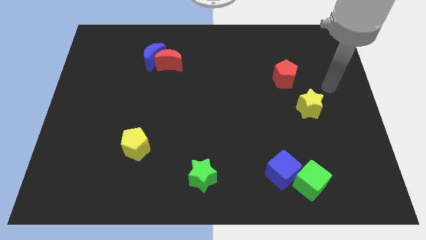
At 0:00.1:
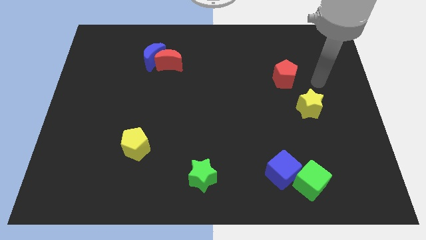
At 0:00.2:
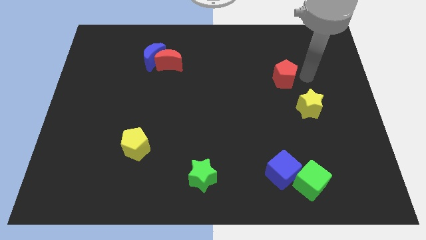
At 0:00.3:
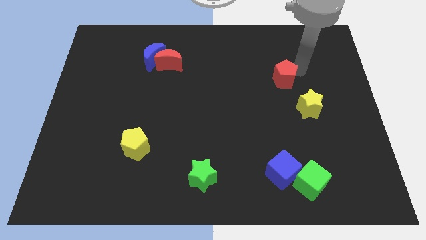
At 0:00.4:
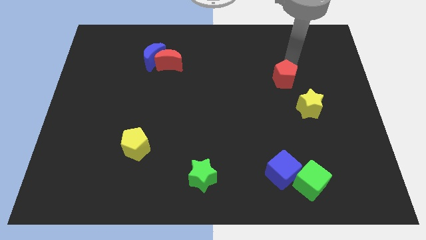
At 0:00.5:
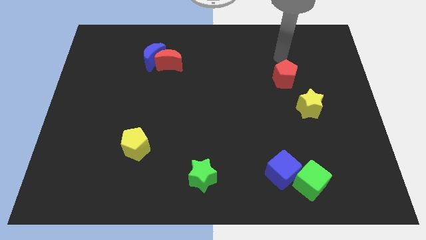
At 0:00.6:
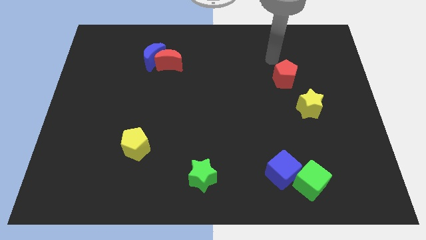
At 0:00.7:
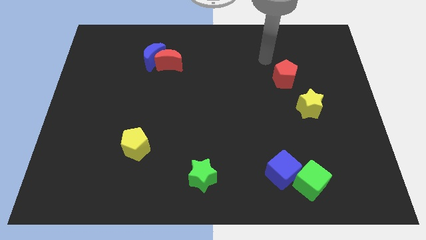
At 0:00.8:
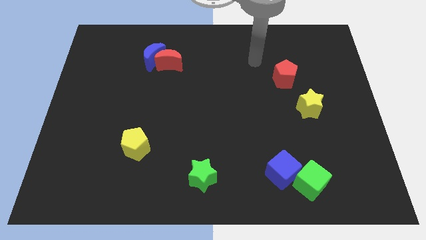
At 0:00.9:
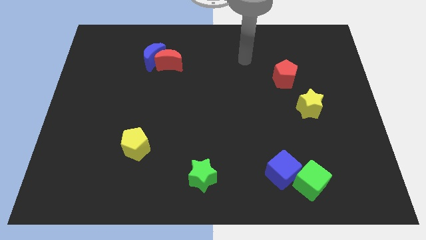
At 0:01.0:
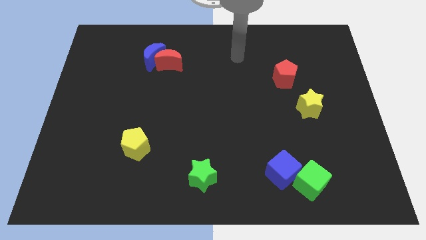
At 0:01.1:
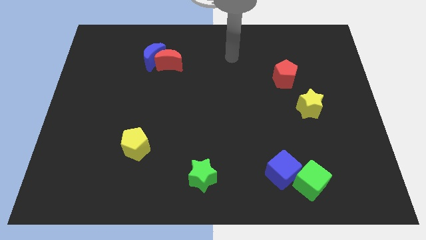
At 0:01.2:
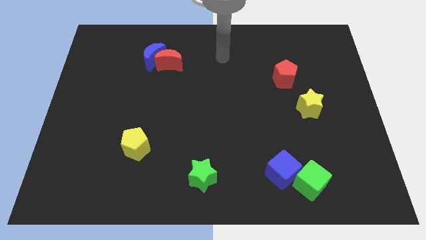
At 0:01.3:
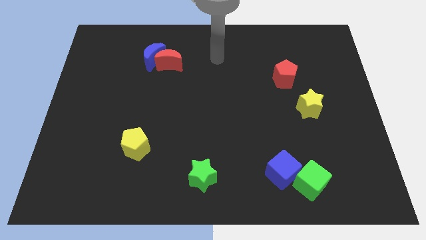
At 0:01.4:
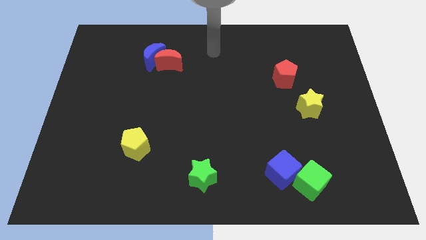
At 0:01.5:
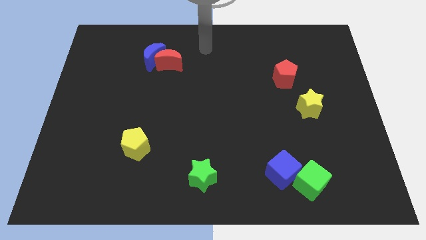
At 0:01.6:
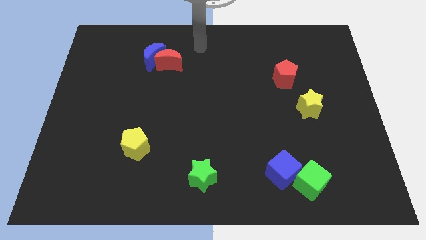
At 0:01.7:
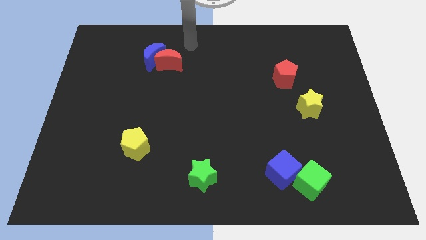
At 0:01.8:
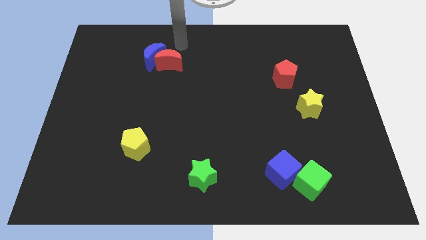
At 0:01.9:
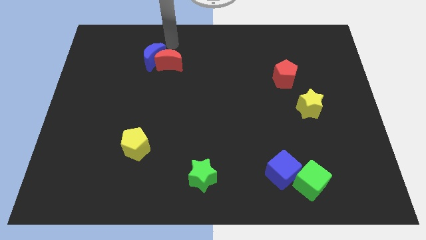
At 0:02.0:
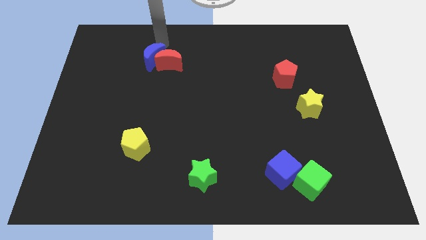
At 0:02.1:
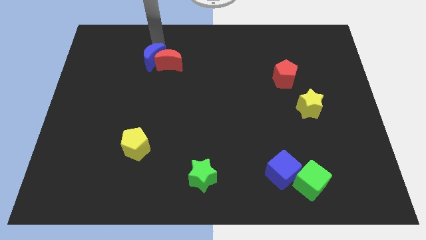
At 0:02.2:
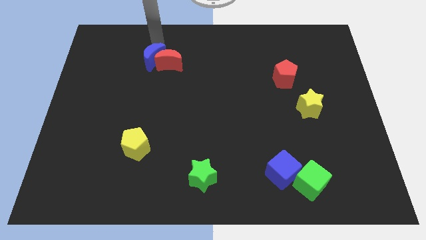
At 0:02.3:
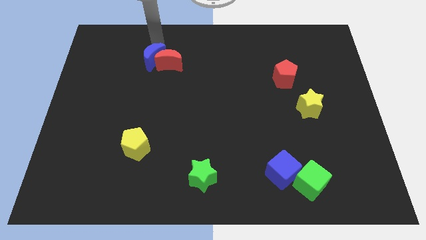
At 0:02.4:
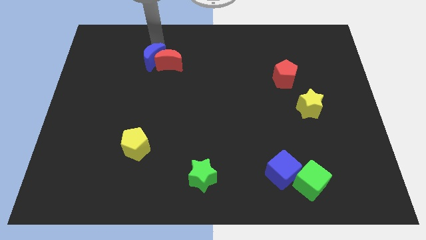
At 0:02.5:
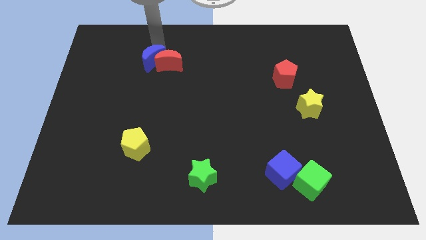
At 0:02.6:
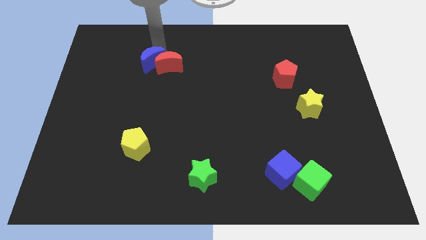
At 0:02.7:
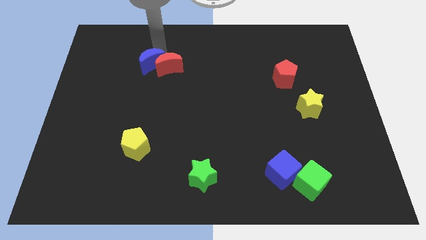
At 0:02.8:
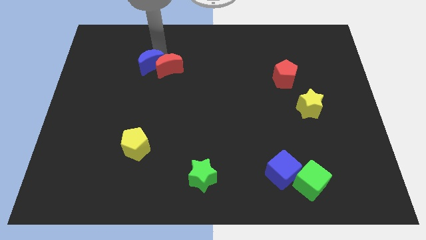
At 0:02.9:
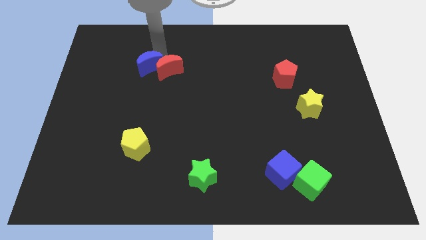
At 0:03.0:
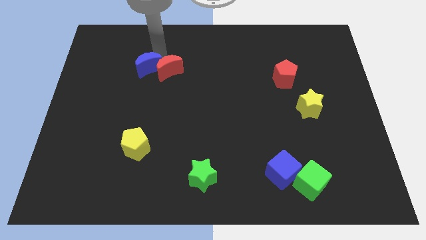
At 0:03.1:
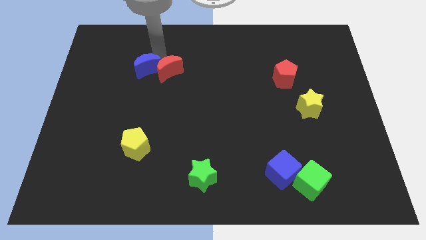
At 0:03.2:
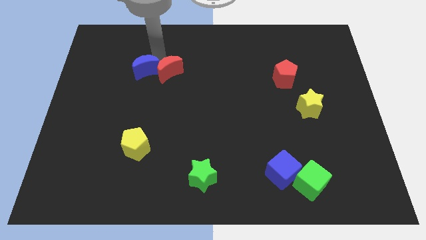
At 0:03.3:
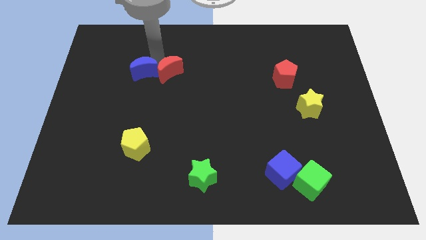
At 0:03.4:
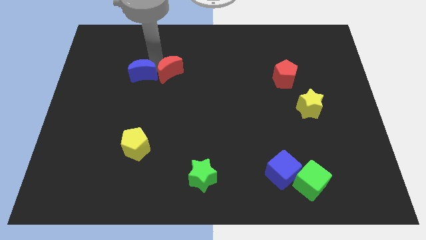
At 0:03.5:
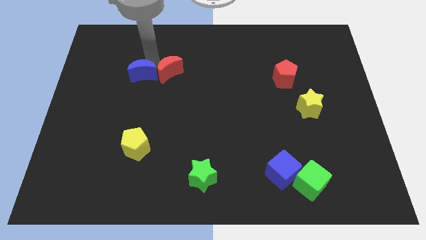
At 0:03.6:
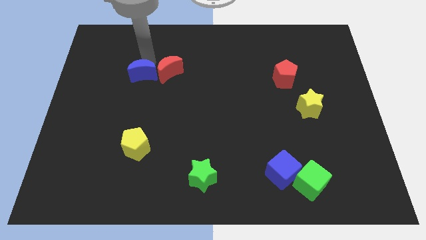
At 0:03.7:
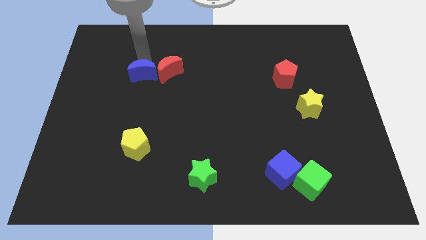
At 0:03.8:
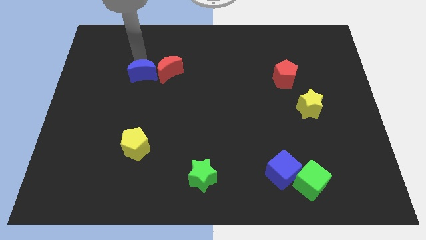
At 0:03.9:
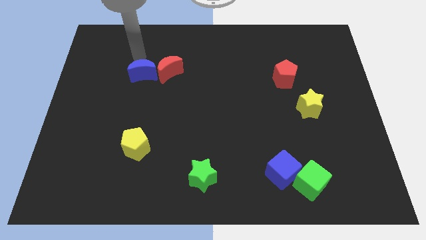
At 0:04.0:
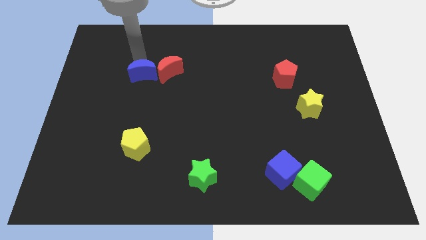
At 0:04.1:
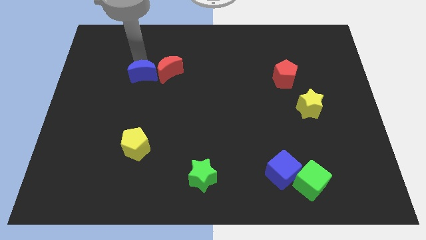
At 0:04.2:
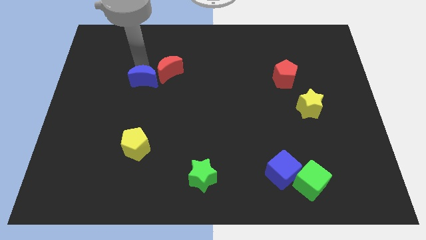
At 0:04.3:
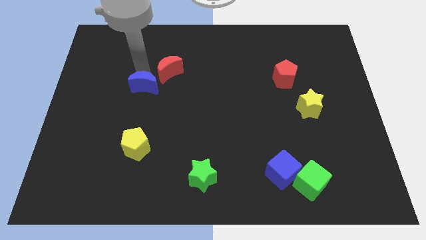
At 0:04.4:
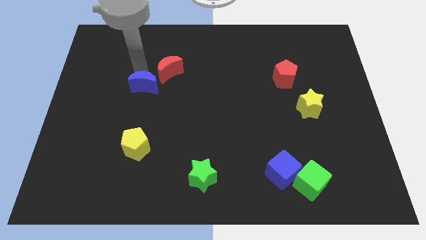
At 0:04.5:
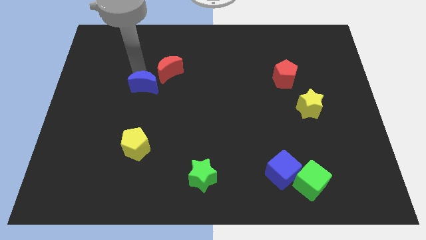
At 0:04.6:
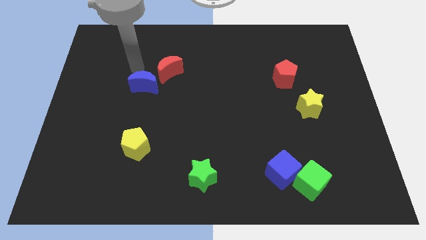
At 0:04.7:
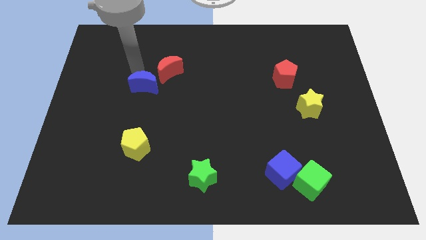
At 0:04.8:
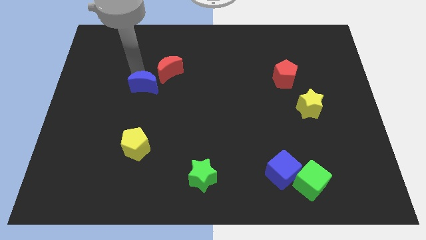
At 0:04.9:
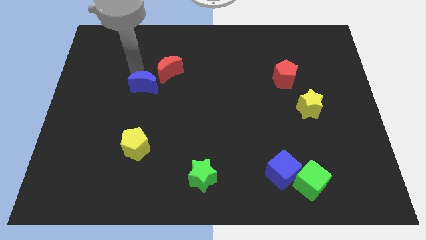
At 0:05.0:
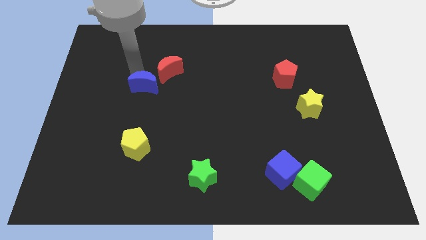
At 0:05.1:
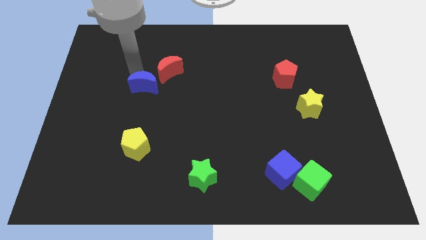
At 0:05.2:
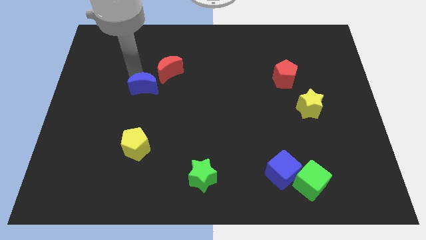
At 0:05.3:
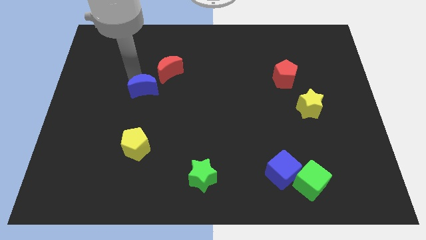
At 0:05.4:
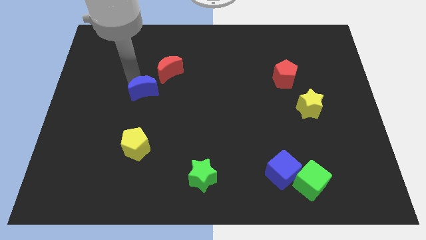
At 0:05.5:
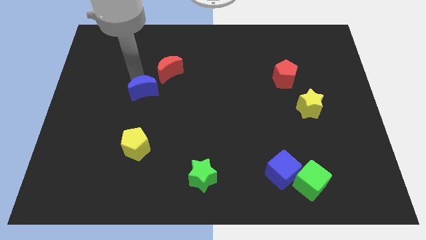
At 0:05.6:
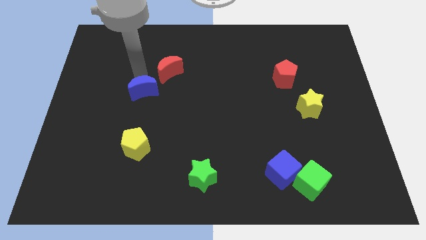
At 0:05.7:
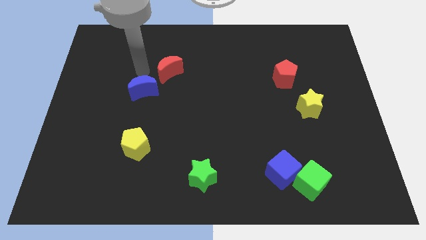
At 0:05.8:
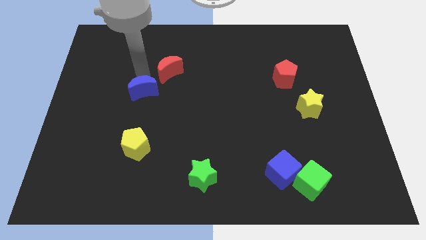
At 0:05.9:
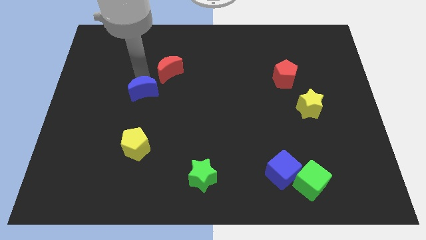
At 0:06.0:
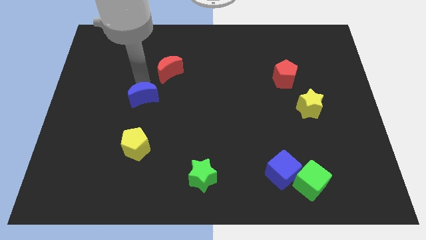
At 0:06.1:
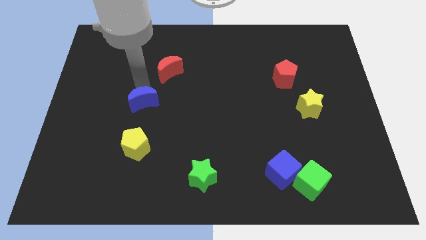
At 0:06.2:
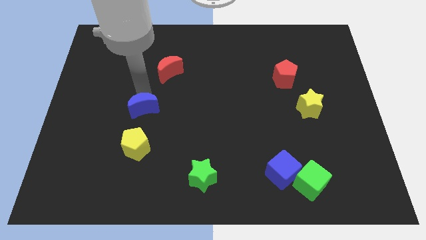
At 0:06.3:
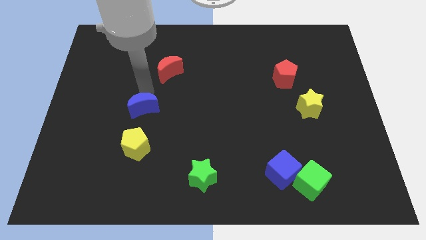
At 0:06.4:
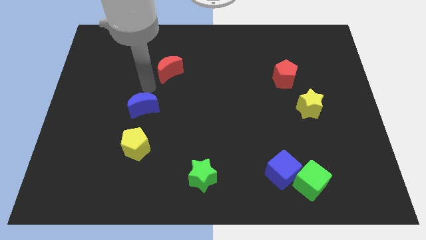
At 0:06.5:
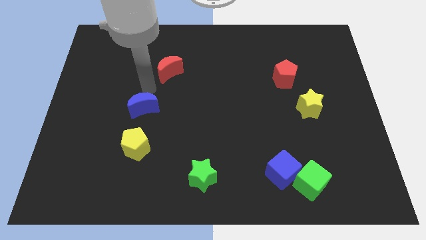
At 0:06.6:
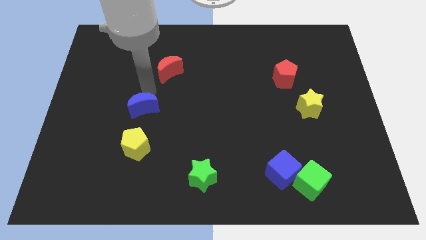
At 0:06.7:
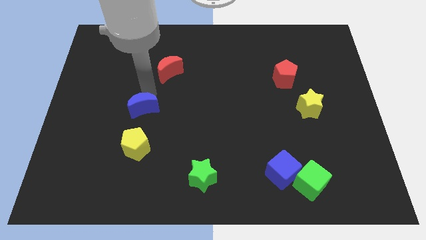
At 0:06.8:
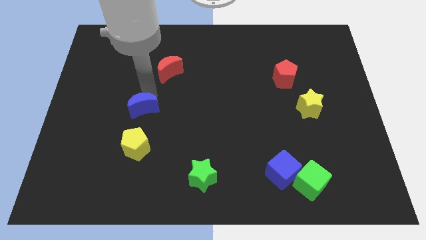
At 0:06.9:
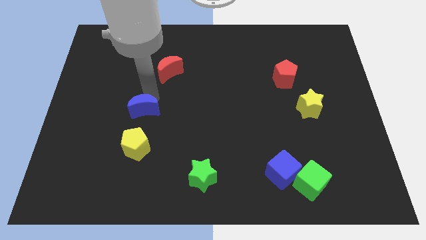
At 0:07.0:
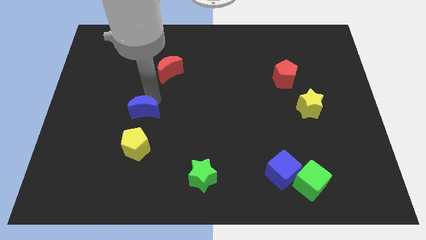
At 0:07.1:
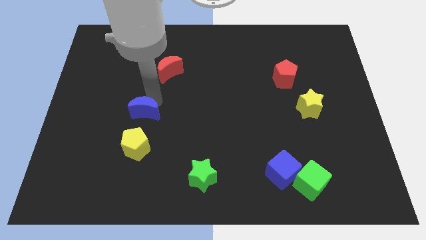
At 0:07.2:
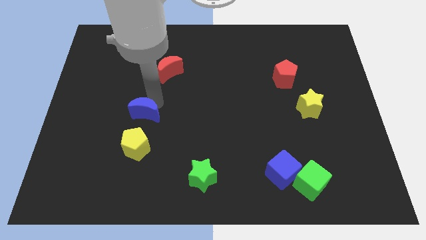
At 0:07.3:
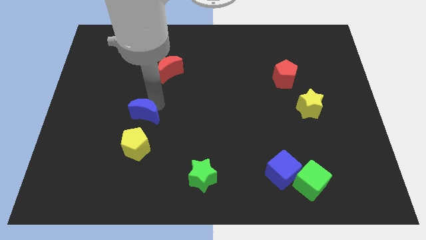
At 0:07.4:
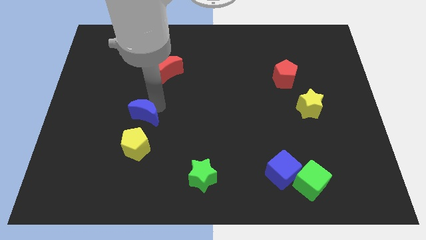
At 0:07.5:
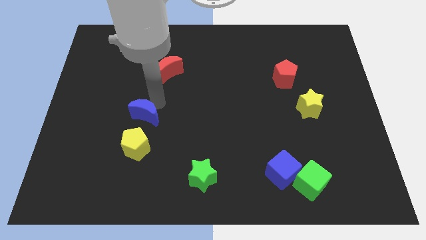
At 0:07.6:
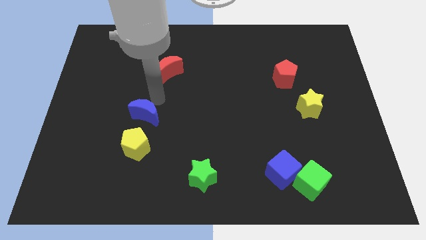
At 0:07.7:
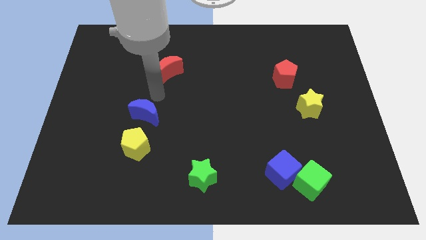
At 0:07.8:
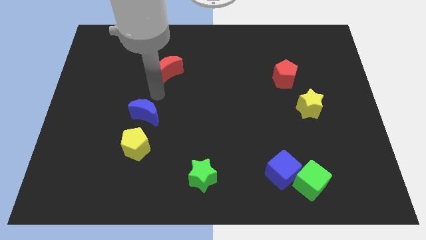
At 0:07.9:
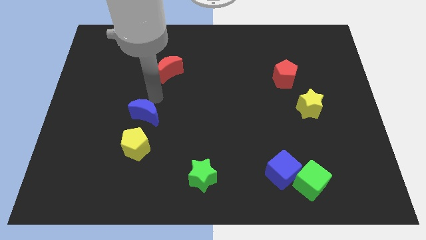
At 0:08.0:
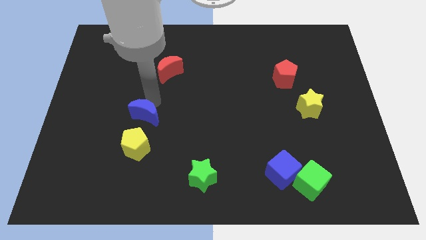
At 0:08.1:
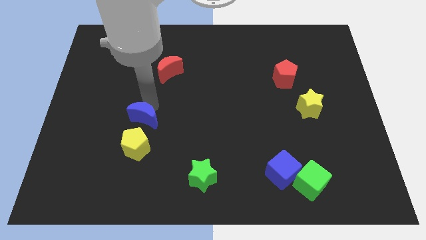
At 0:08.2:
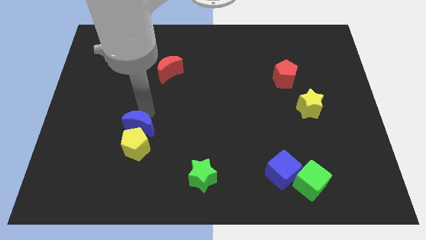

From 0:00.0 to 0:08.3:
move the blue moon towards the yellow pentagon
